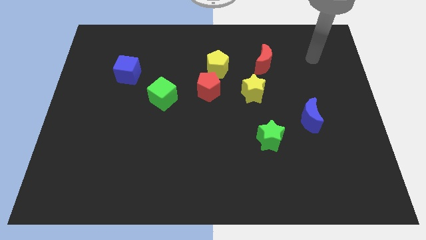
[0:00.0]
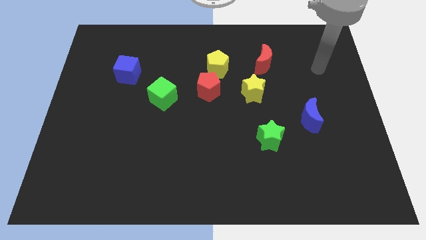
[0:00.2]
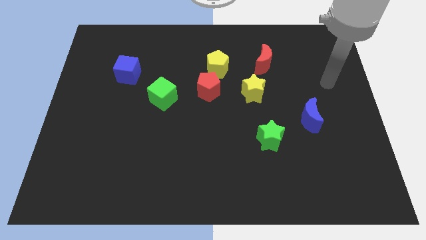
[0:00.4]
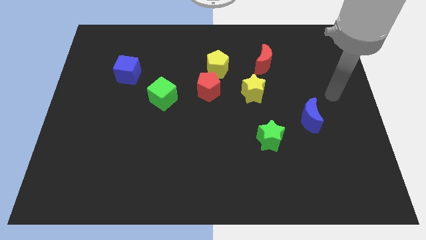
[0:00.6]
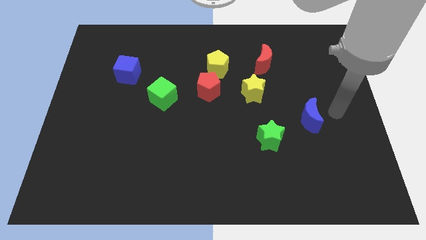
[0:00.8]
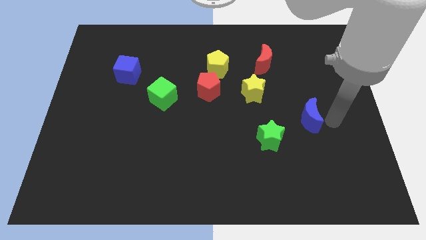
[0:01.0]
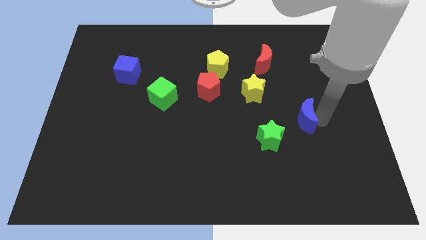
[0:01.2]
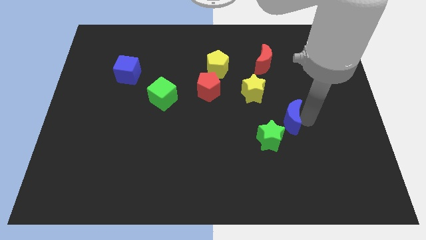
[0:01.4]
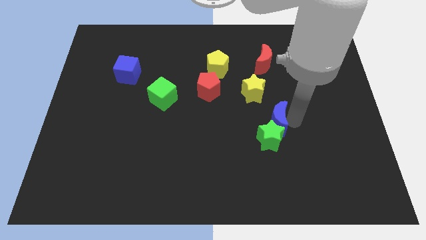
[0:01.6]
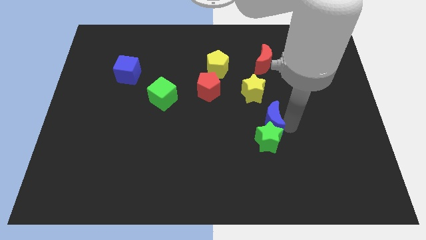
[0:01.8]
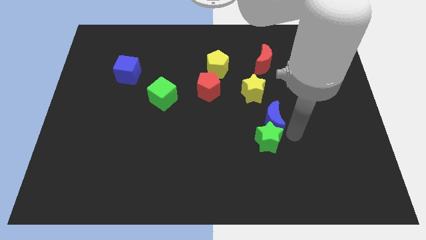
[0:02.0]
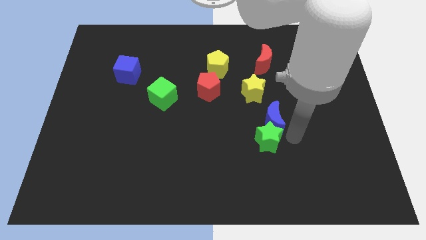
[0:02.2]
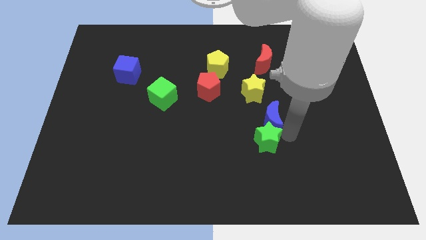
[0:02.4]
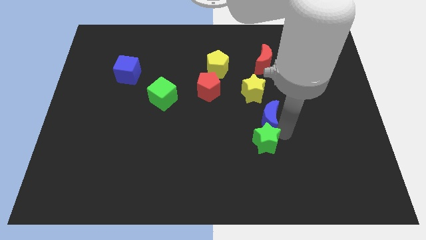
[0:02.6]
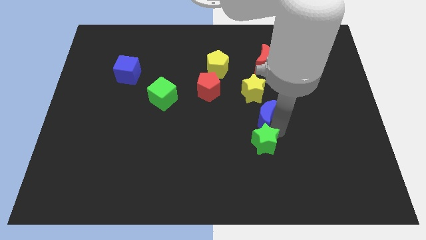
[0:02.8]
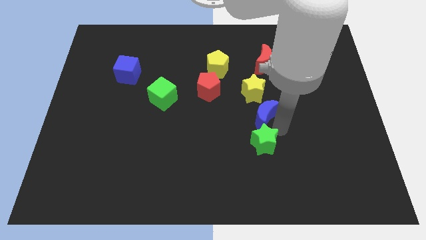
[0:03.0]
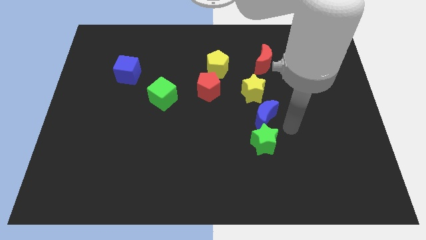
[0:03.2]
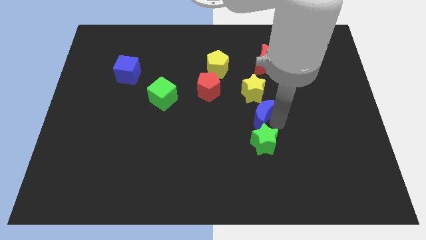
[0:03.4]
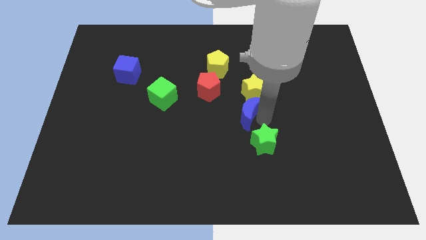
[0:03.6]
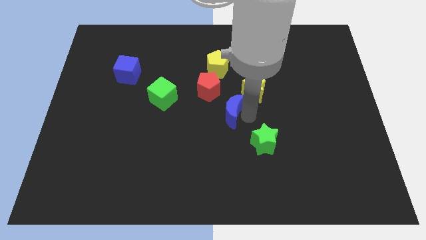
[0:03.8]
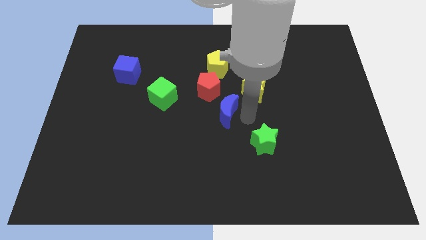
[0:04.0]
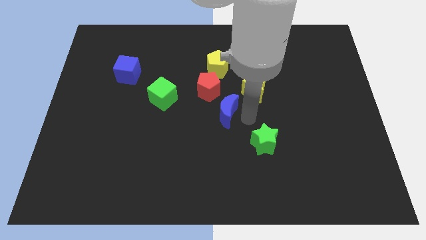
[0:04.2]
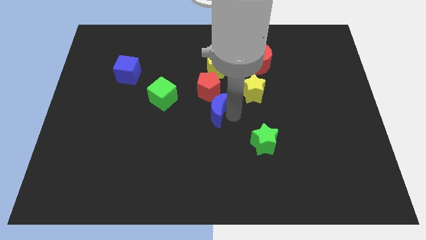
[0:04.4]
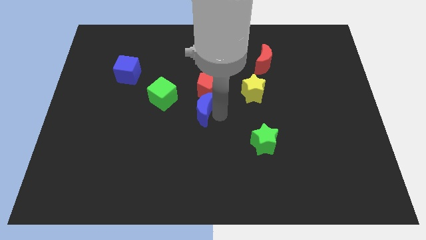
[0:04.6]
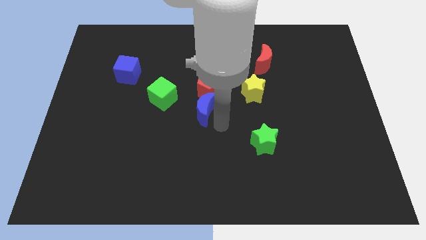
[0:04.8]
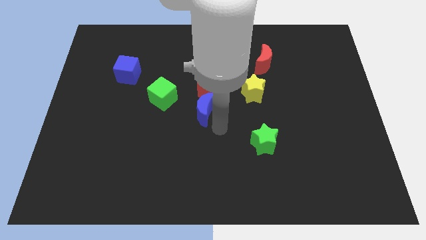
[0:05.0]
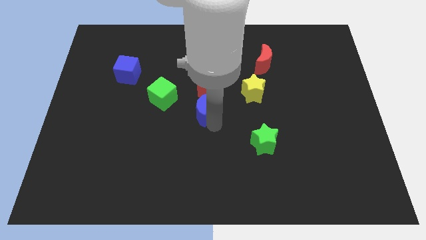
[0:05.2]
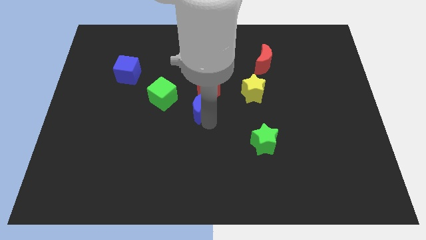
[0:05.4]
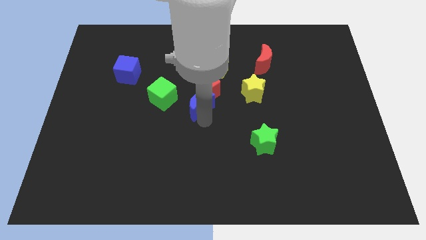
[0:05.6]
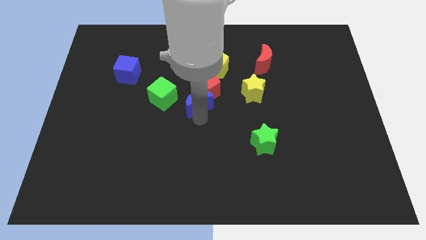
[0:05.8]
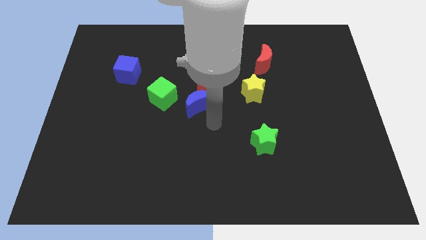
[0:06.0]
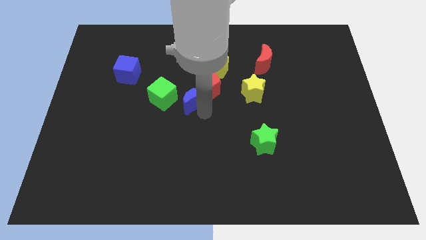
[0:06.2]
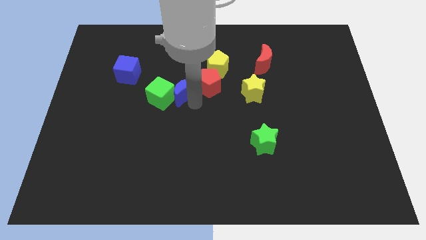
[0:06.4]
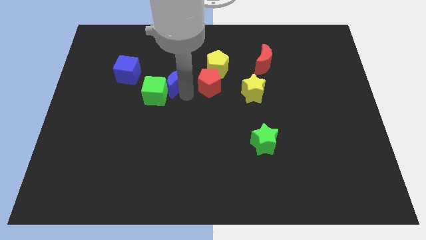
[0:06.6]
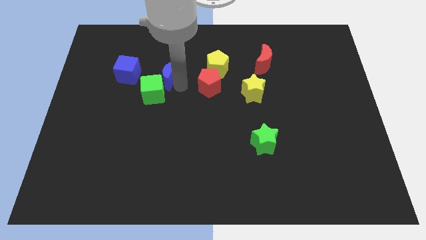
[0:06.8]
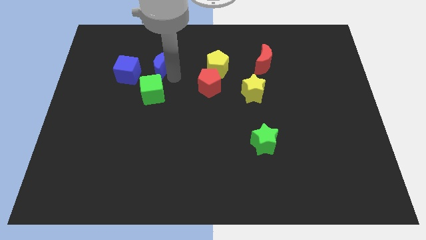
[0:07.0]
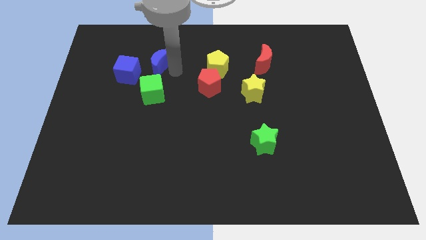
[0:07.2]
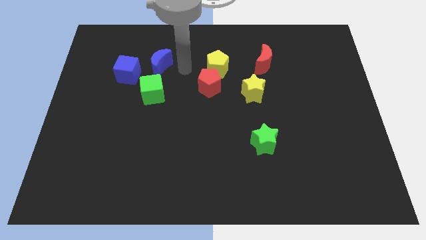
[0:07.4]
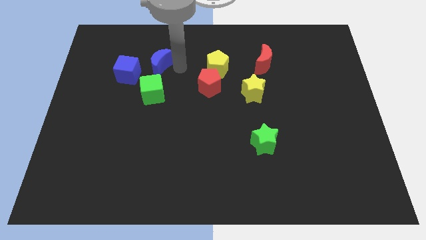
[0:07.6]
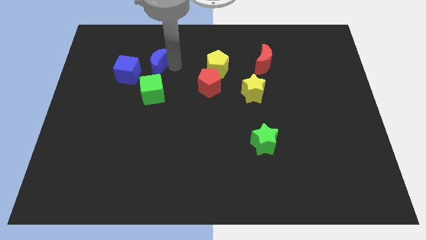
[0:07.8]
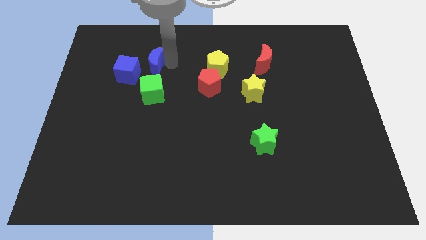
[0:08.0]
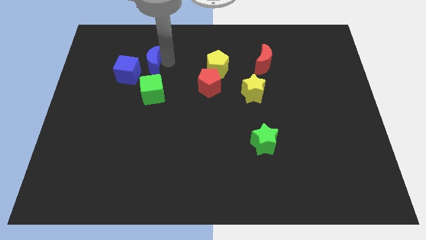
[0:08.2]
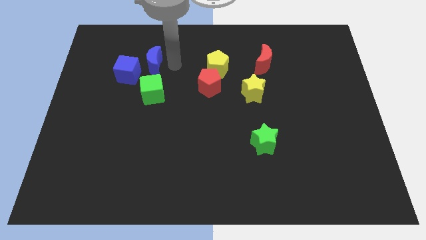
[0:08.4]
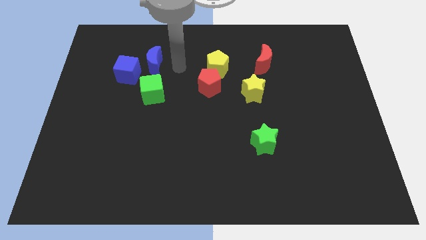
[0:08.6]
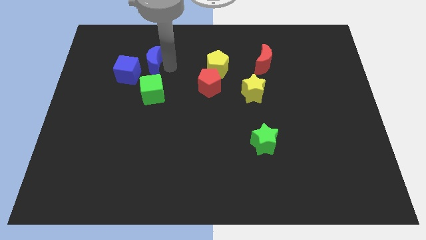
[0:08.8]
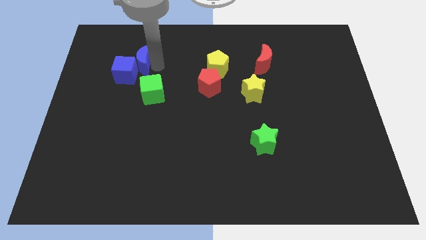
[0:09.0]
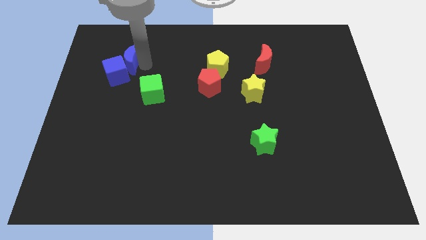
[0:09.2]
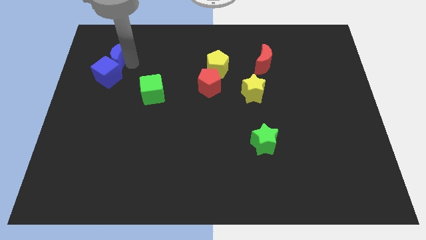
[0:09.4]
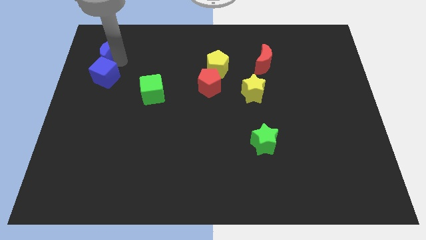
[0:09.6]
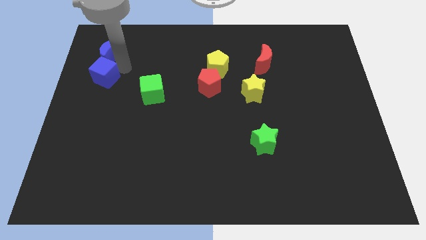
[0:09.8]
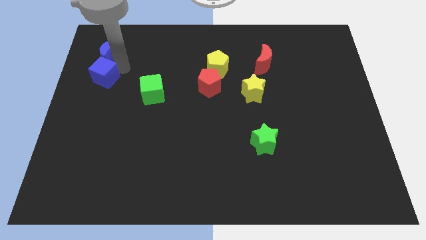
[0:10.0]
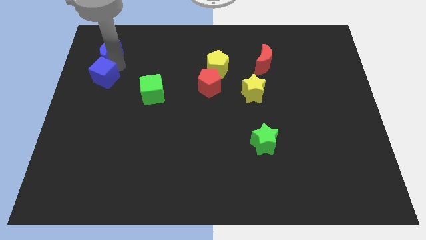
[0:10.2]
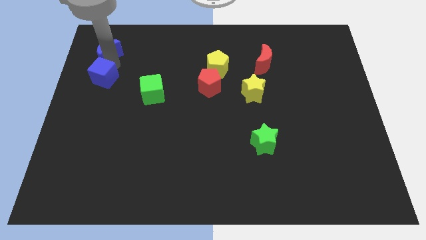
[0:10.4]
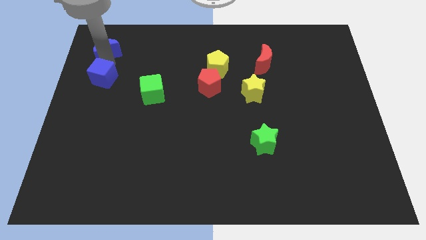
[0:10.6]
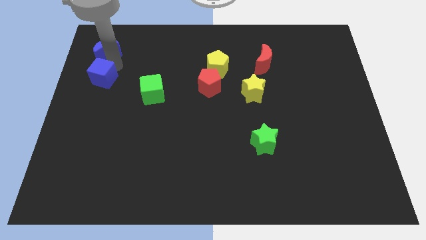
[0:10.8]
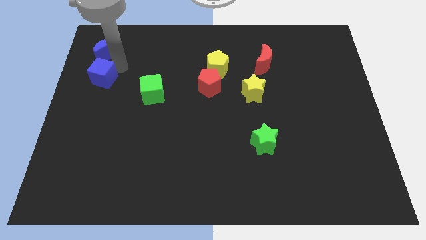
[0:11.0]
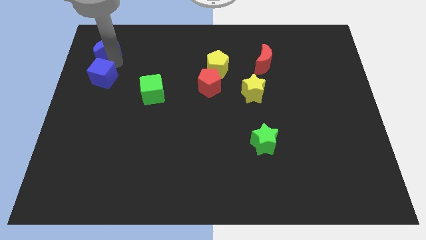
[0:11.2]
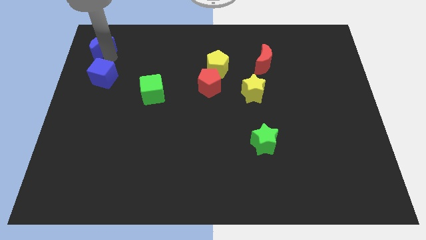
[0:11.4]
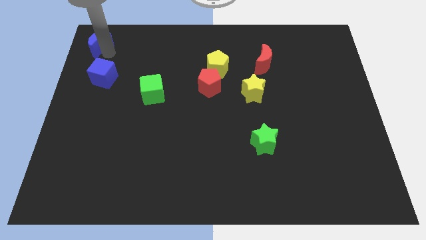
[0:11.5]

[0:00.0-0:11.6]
move the blue moon to the upper left corner

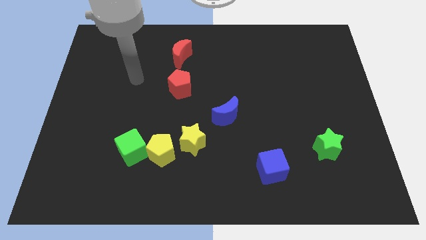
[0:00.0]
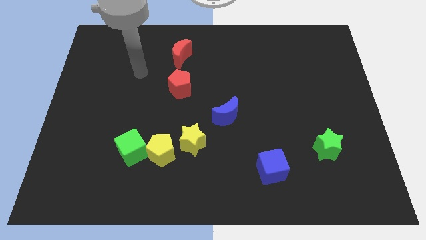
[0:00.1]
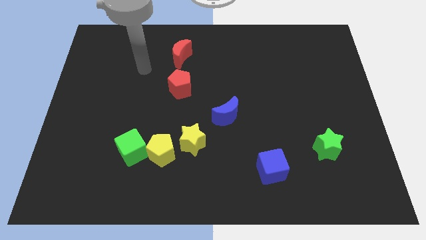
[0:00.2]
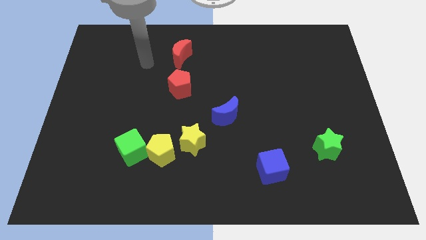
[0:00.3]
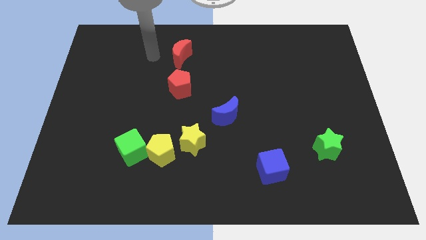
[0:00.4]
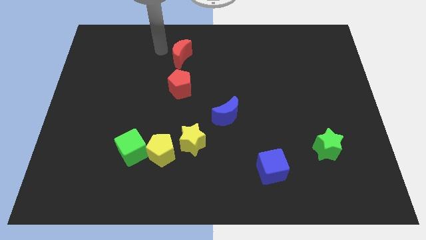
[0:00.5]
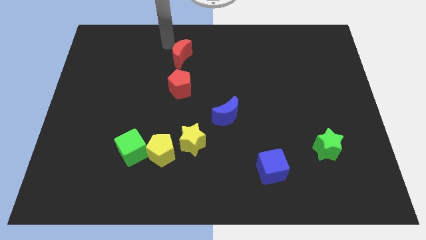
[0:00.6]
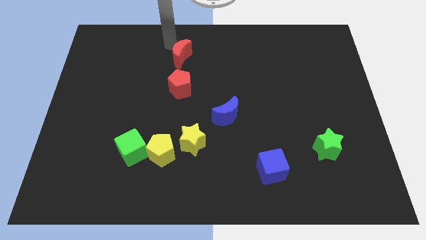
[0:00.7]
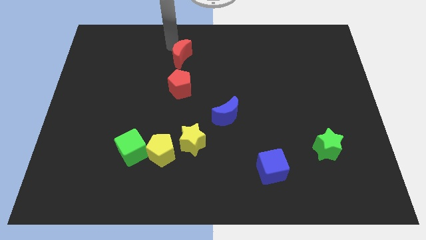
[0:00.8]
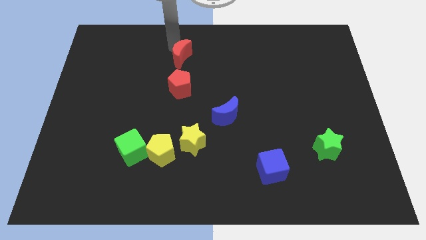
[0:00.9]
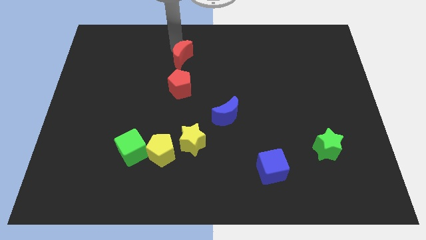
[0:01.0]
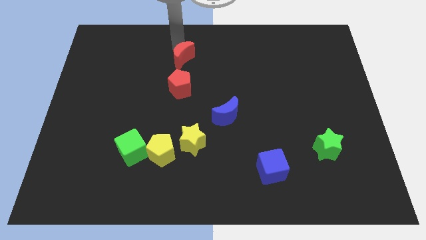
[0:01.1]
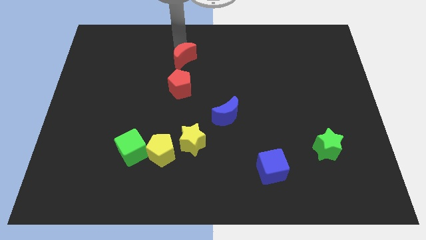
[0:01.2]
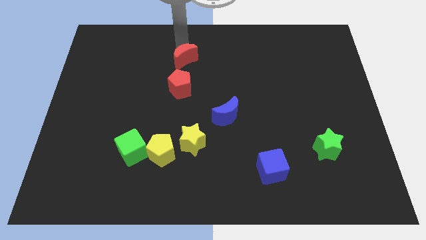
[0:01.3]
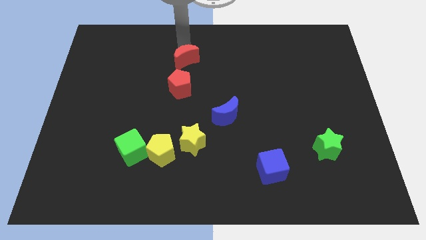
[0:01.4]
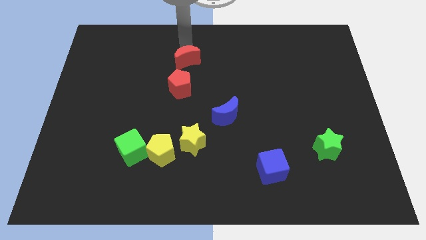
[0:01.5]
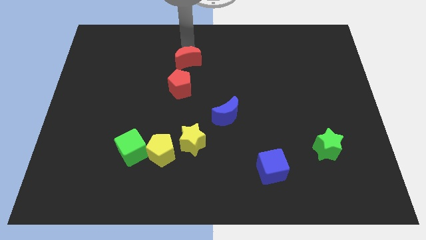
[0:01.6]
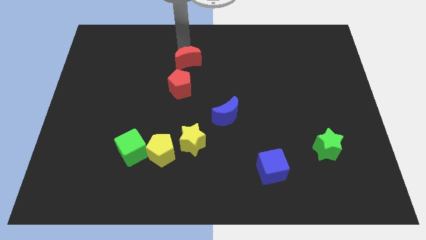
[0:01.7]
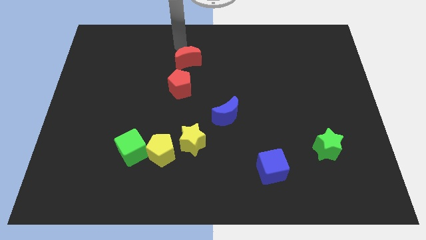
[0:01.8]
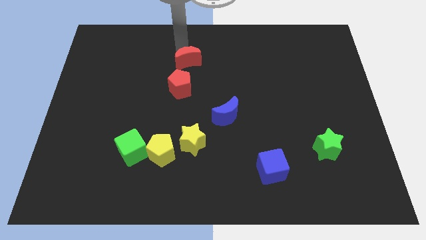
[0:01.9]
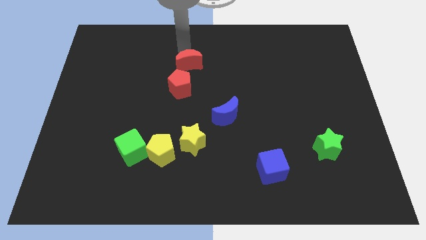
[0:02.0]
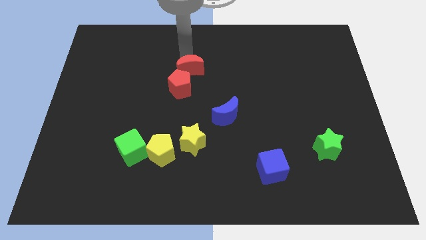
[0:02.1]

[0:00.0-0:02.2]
move the red moon to the center of the board
